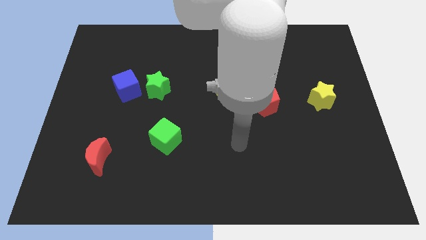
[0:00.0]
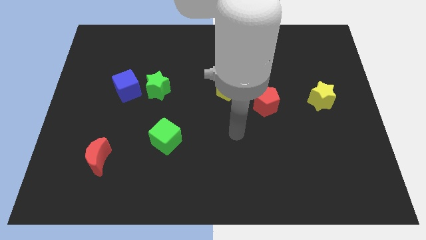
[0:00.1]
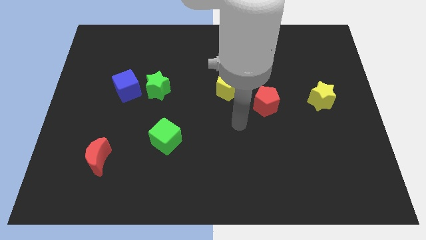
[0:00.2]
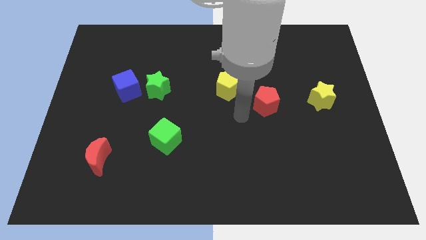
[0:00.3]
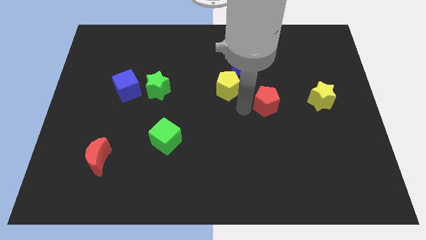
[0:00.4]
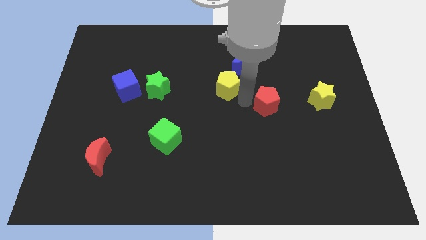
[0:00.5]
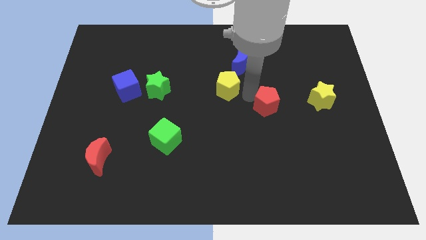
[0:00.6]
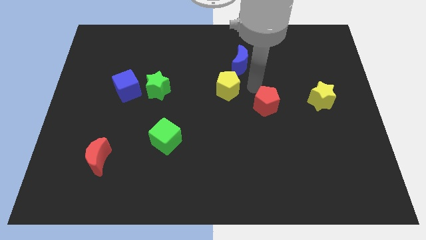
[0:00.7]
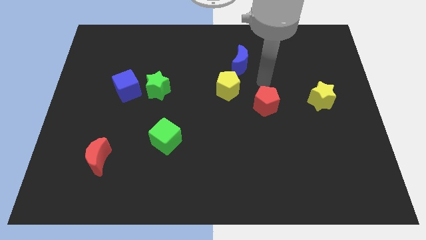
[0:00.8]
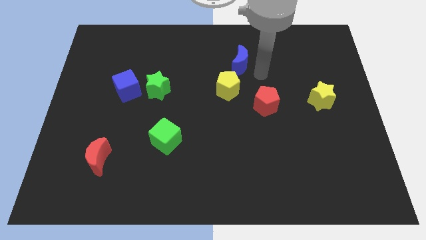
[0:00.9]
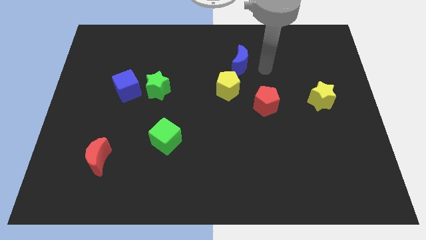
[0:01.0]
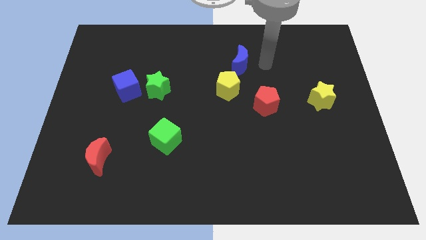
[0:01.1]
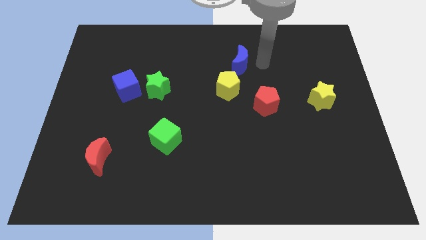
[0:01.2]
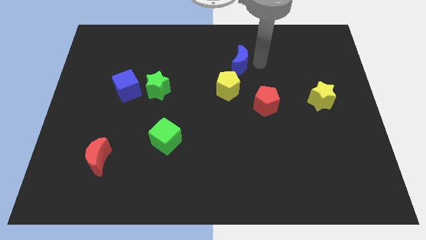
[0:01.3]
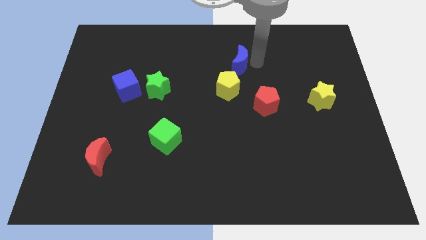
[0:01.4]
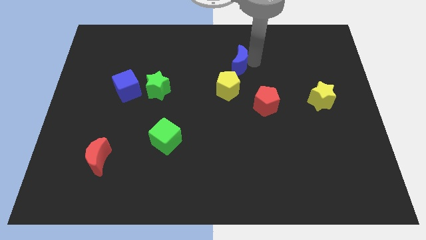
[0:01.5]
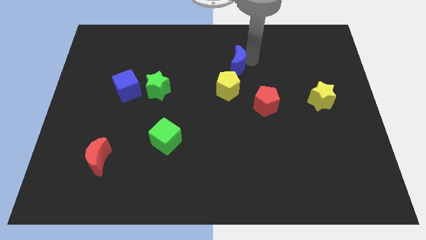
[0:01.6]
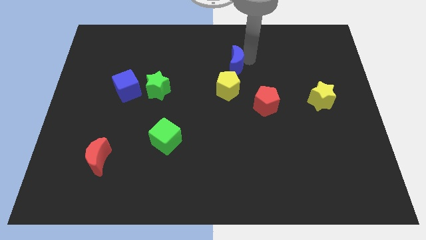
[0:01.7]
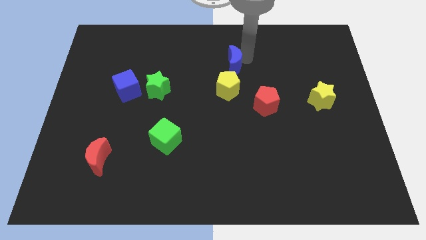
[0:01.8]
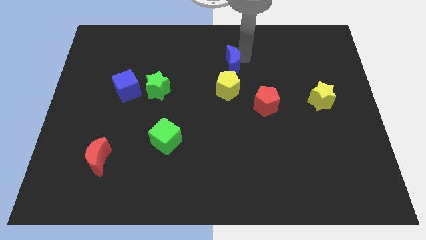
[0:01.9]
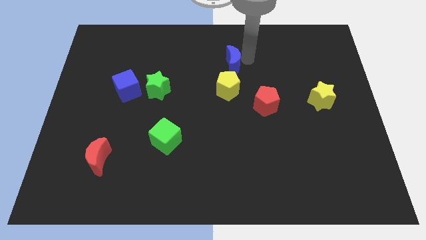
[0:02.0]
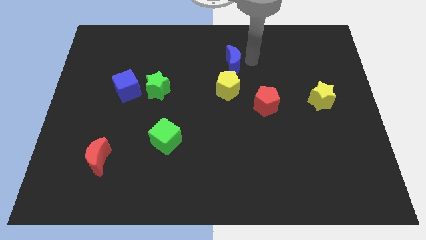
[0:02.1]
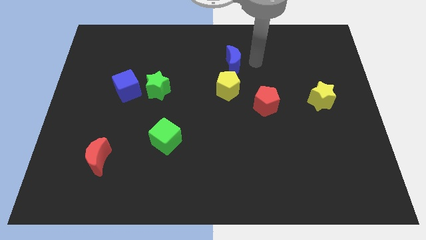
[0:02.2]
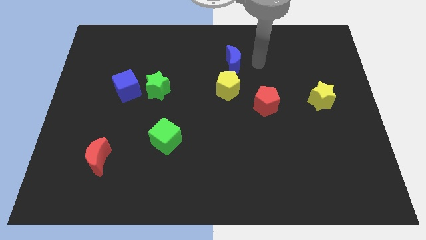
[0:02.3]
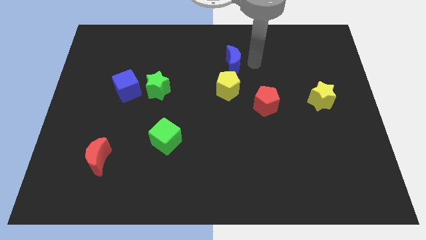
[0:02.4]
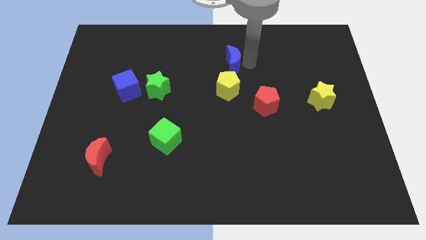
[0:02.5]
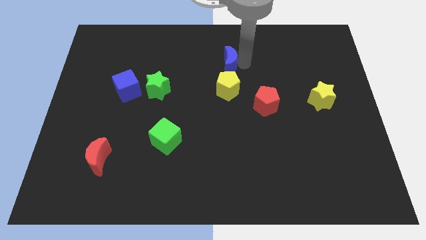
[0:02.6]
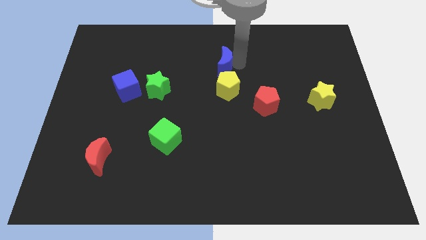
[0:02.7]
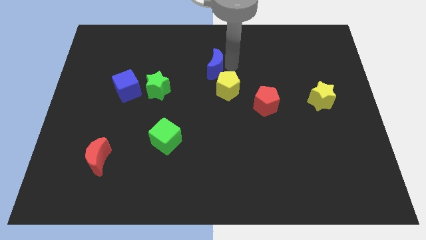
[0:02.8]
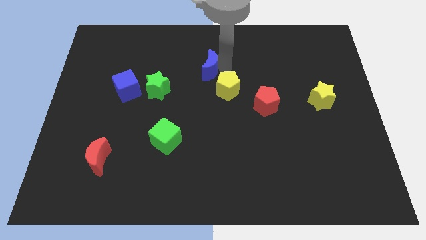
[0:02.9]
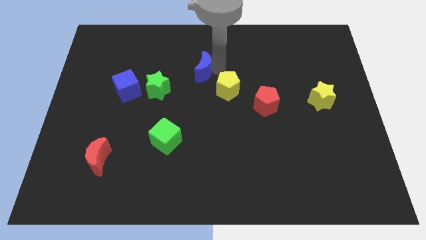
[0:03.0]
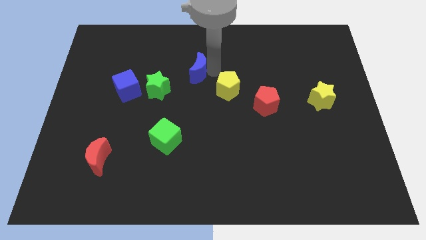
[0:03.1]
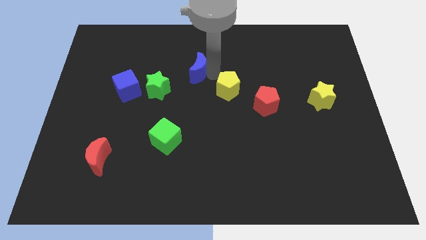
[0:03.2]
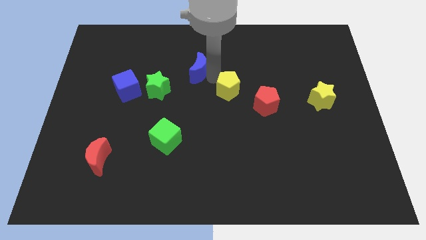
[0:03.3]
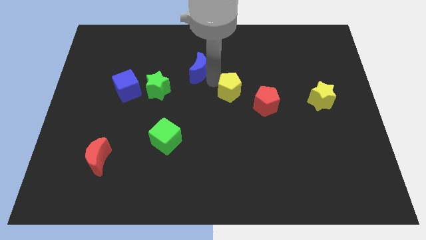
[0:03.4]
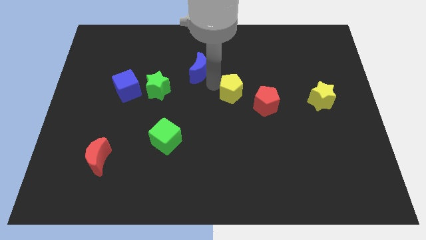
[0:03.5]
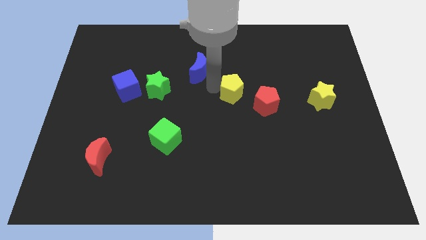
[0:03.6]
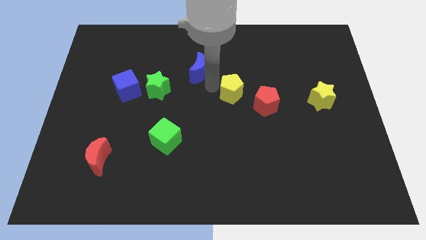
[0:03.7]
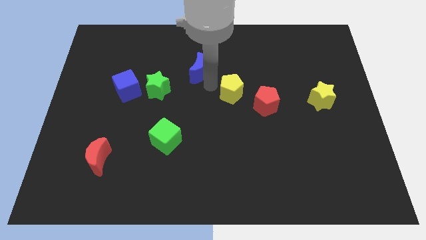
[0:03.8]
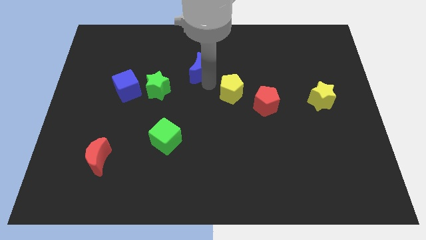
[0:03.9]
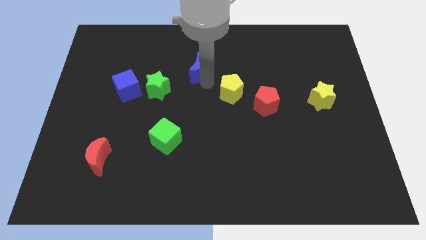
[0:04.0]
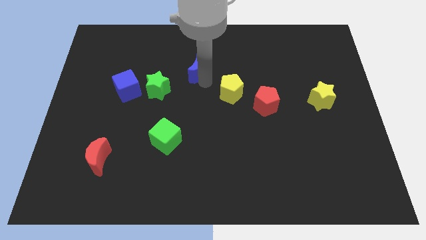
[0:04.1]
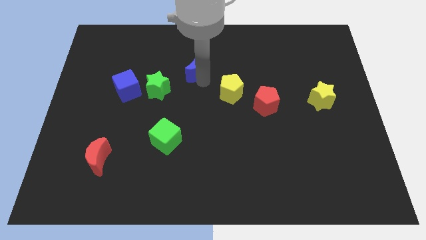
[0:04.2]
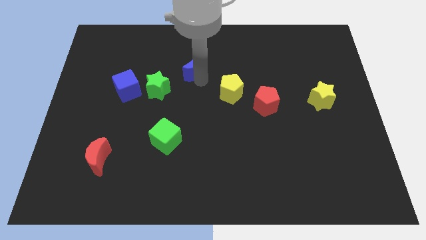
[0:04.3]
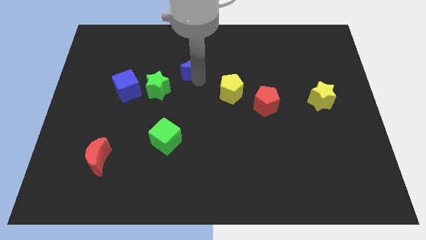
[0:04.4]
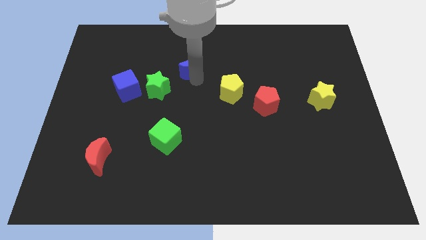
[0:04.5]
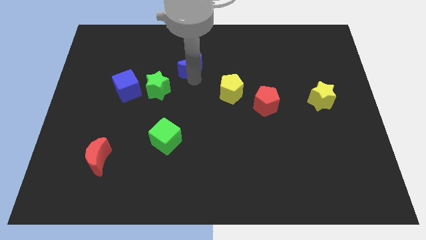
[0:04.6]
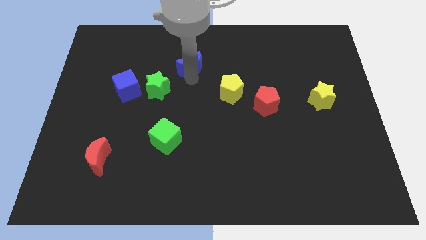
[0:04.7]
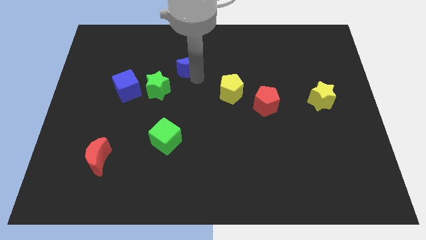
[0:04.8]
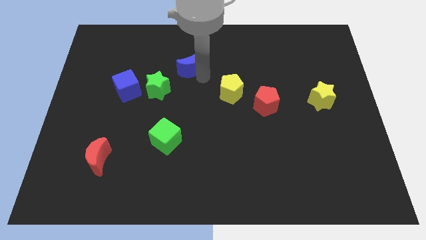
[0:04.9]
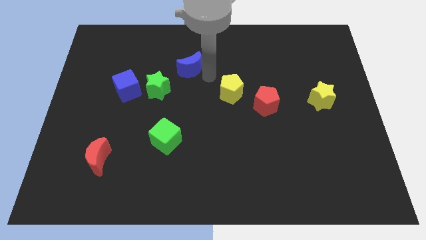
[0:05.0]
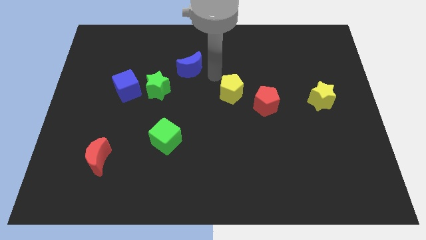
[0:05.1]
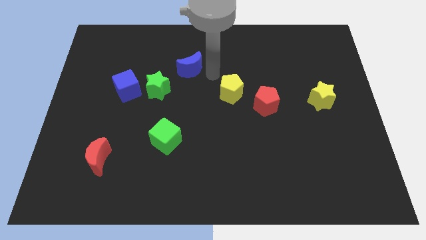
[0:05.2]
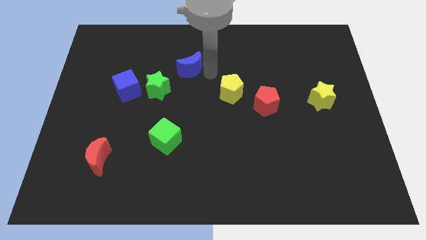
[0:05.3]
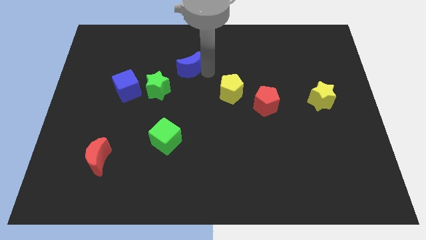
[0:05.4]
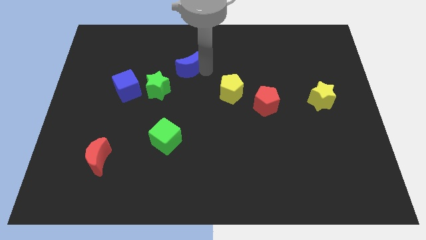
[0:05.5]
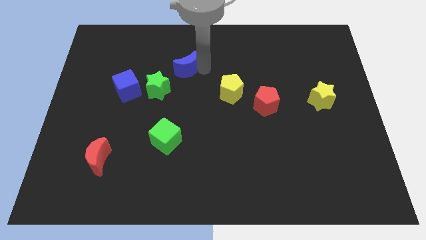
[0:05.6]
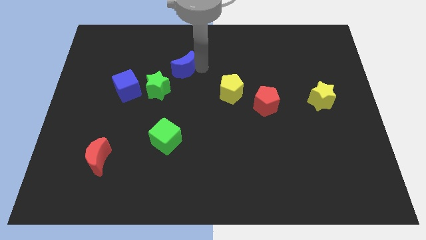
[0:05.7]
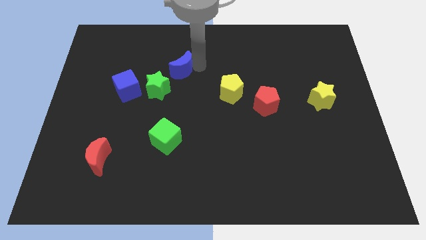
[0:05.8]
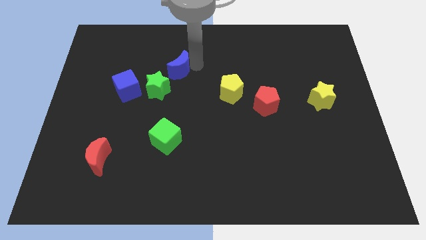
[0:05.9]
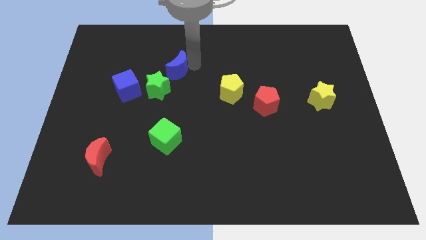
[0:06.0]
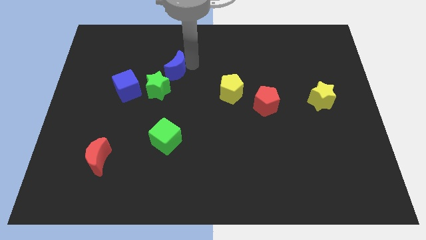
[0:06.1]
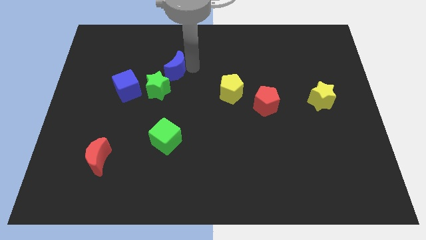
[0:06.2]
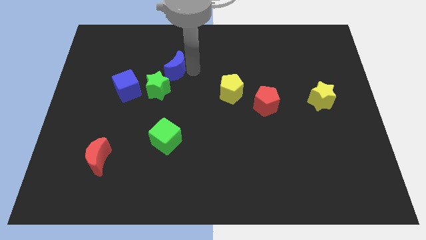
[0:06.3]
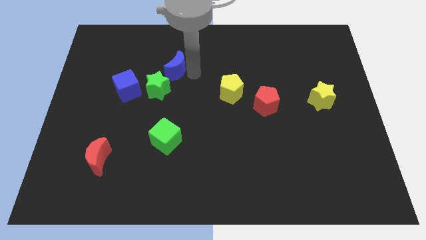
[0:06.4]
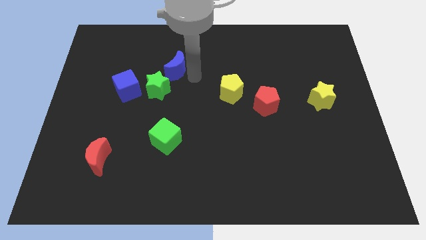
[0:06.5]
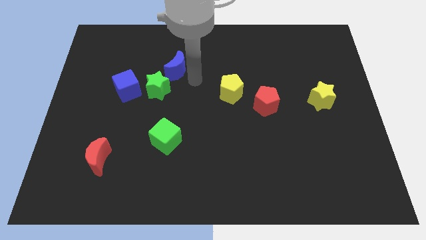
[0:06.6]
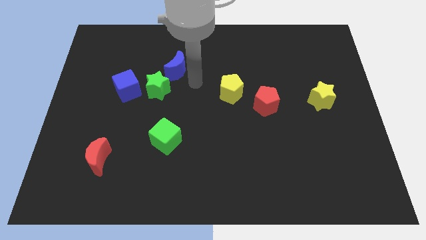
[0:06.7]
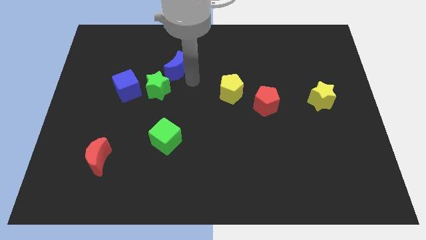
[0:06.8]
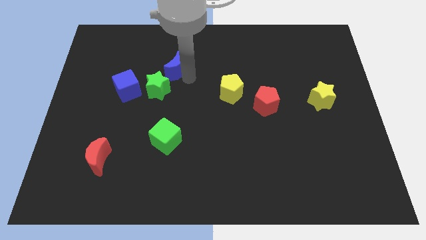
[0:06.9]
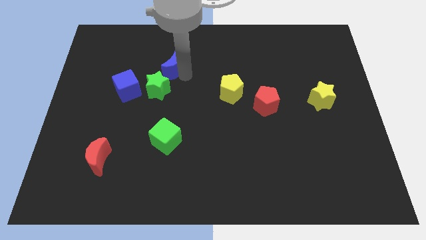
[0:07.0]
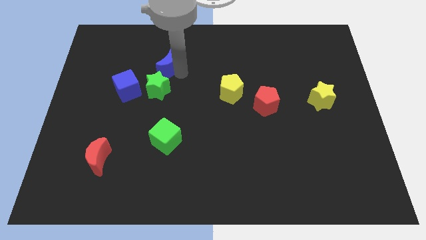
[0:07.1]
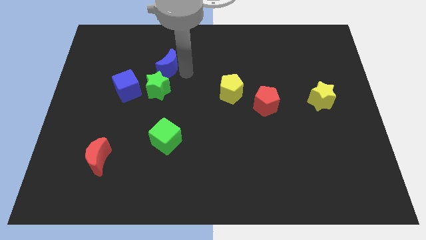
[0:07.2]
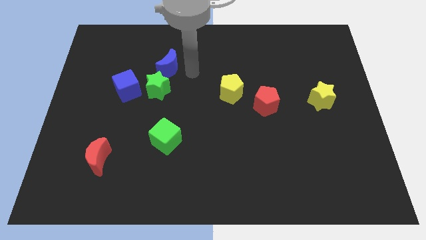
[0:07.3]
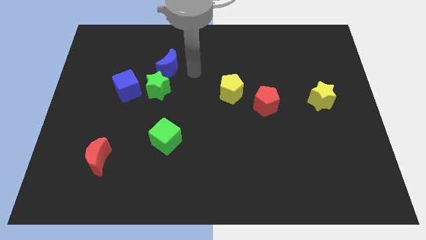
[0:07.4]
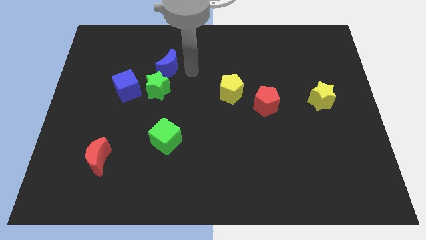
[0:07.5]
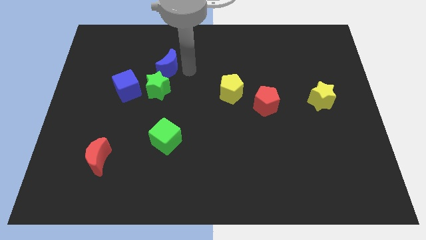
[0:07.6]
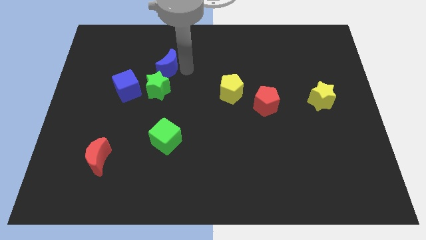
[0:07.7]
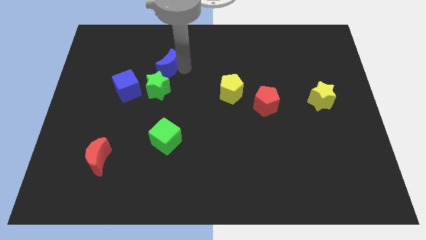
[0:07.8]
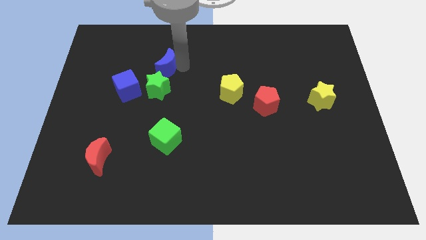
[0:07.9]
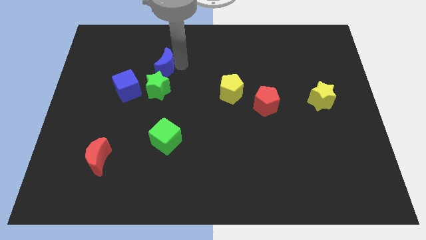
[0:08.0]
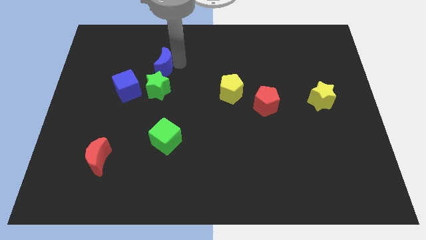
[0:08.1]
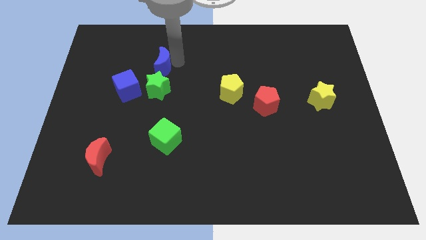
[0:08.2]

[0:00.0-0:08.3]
move the blue moon left
